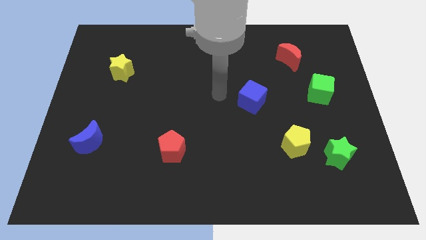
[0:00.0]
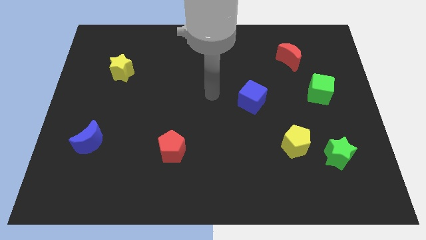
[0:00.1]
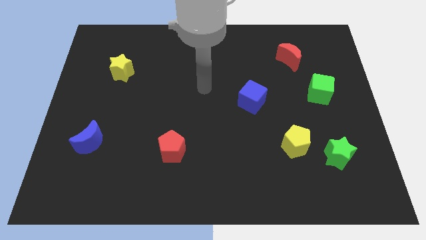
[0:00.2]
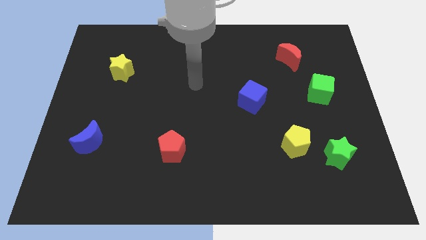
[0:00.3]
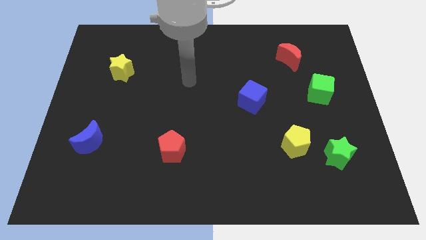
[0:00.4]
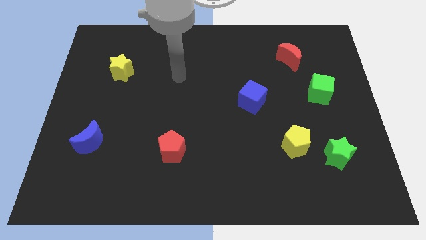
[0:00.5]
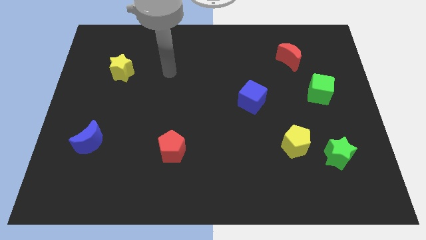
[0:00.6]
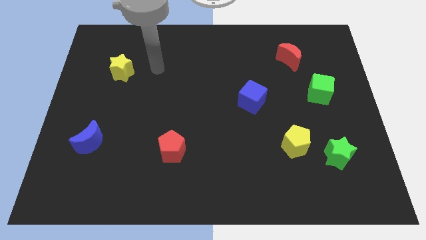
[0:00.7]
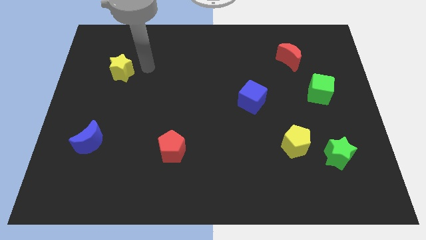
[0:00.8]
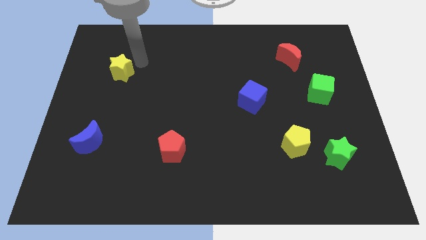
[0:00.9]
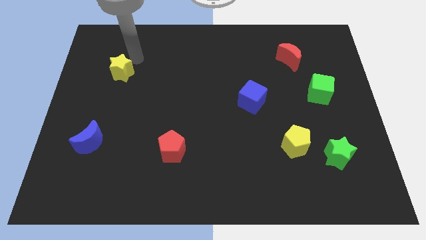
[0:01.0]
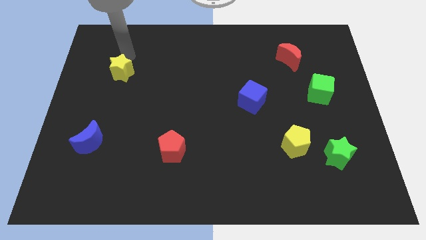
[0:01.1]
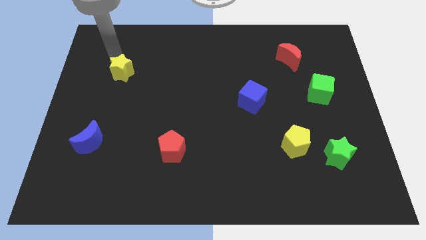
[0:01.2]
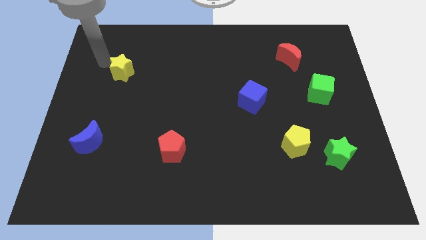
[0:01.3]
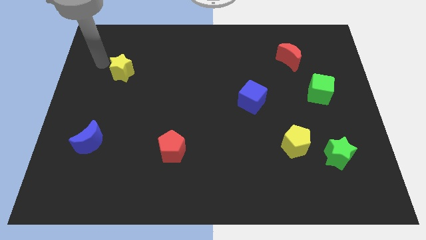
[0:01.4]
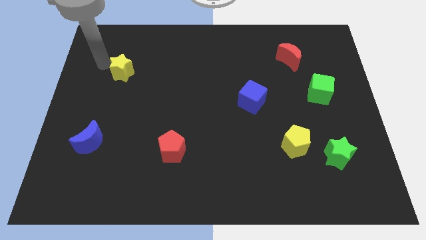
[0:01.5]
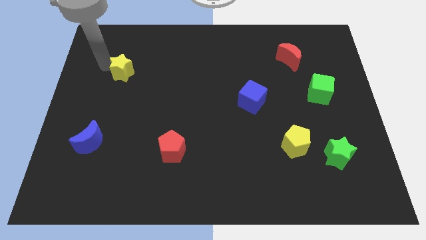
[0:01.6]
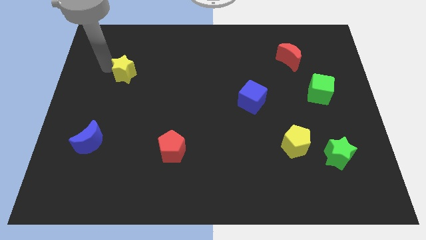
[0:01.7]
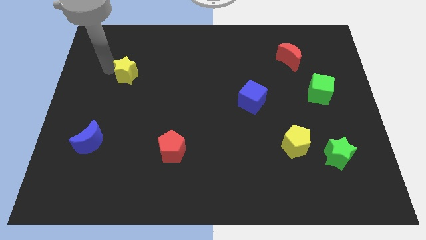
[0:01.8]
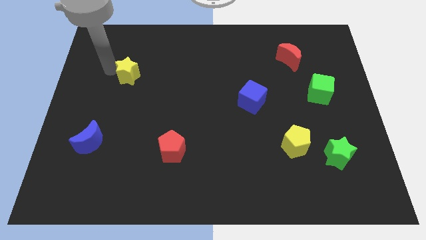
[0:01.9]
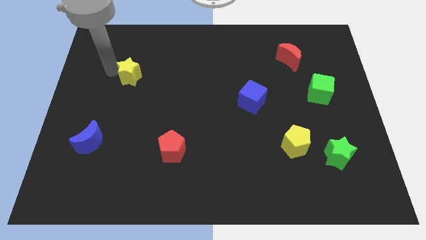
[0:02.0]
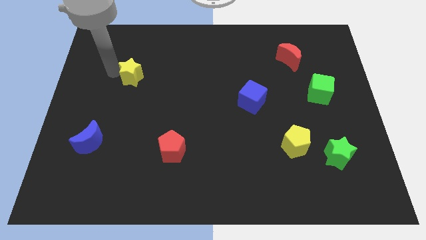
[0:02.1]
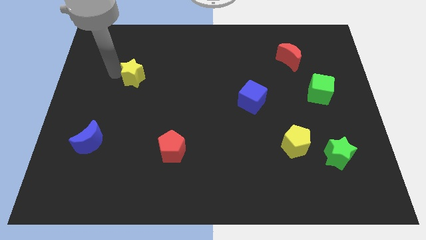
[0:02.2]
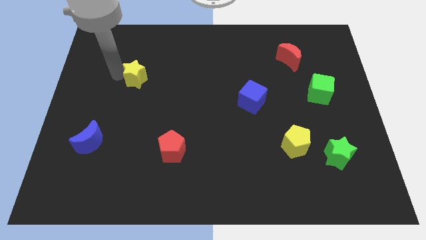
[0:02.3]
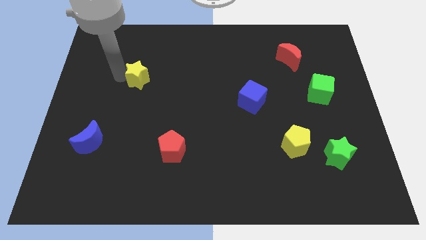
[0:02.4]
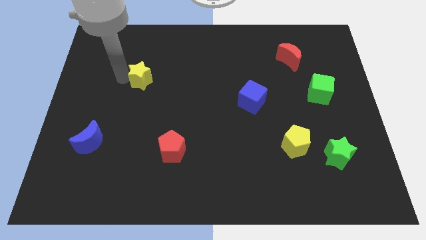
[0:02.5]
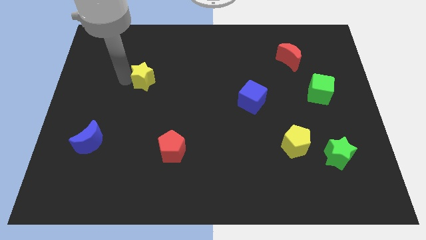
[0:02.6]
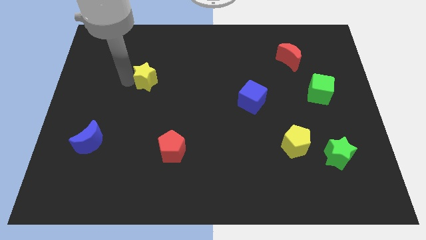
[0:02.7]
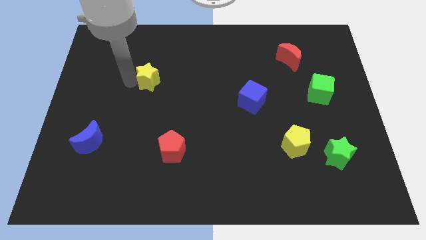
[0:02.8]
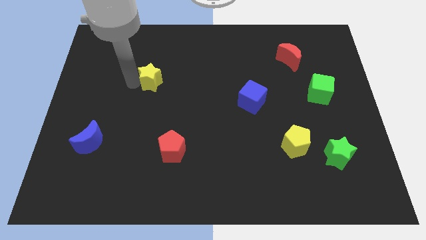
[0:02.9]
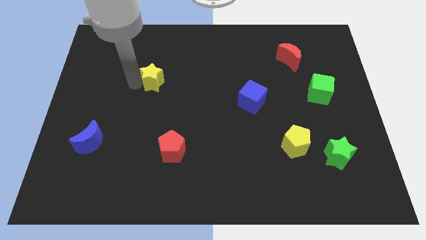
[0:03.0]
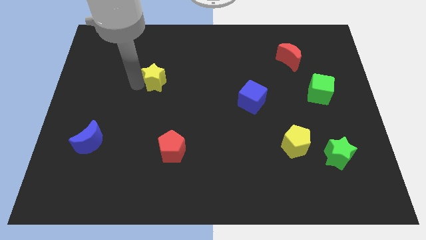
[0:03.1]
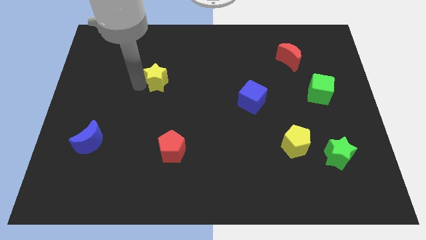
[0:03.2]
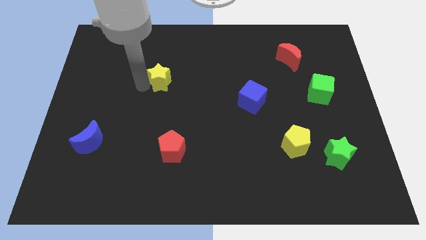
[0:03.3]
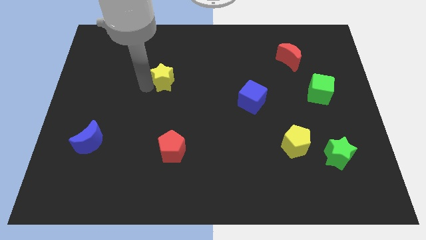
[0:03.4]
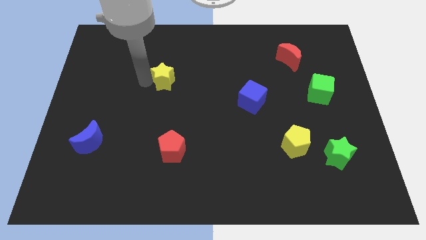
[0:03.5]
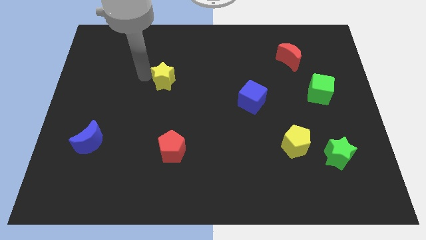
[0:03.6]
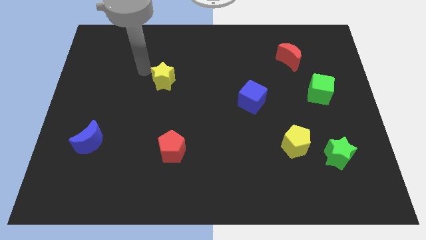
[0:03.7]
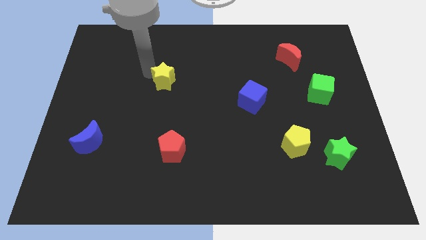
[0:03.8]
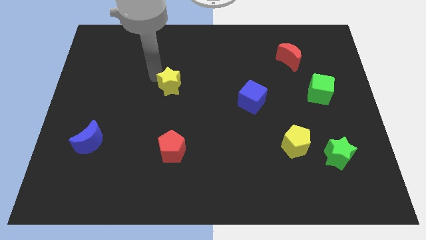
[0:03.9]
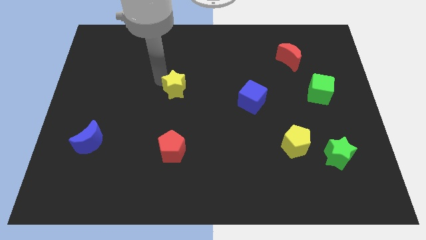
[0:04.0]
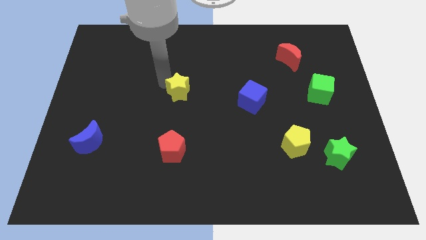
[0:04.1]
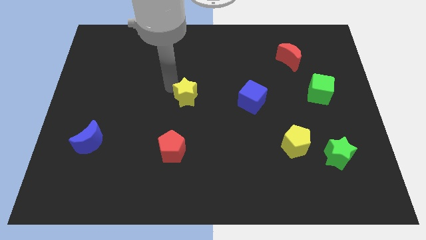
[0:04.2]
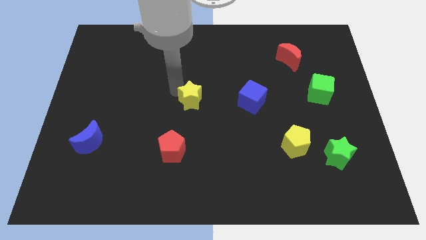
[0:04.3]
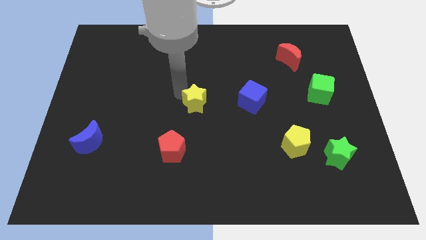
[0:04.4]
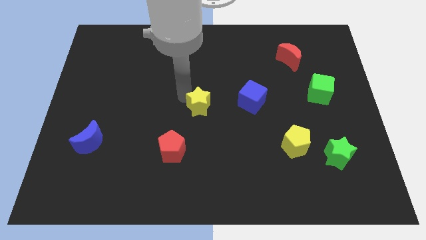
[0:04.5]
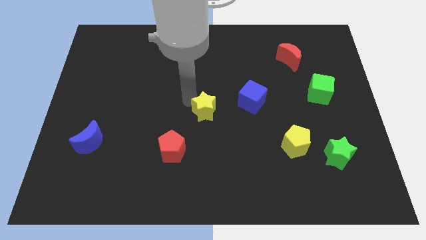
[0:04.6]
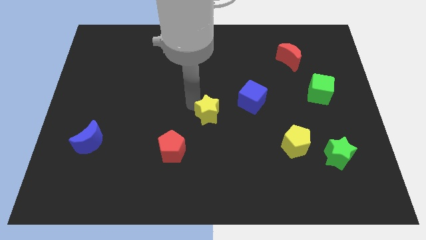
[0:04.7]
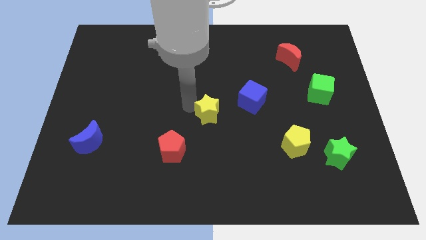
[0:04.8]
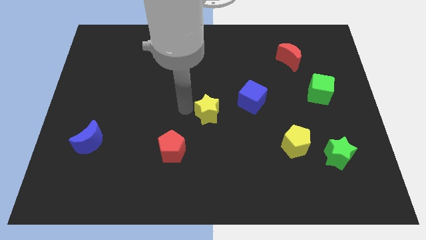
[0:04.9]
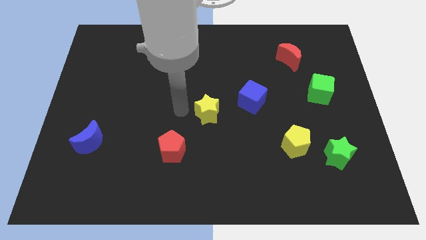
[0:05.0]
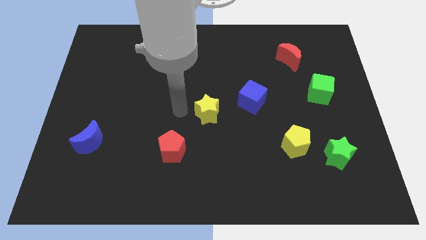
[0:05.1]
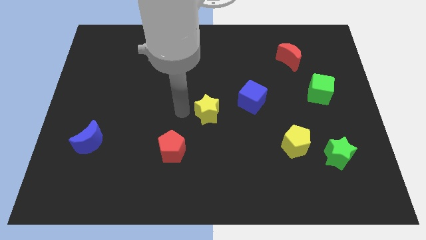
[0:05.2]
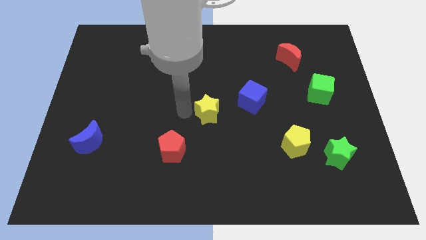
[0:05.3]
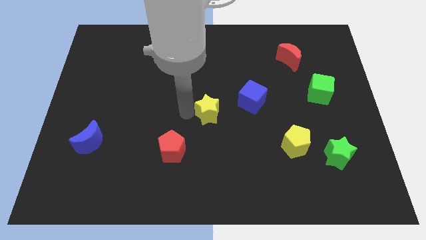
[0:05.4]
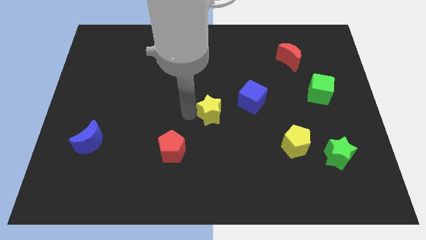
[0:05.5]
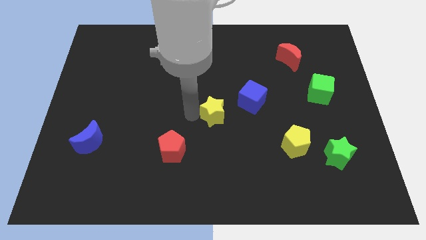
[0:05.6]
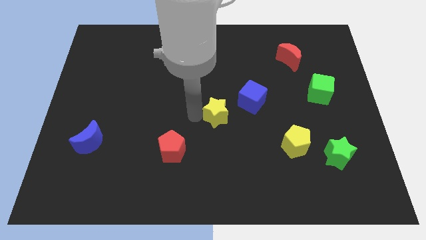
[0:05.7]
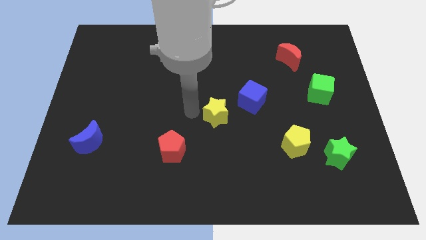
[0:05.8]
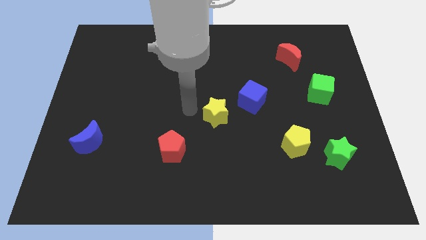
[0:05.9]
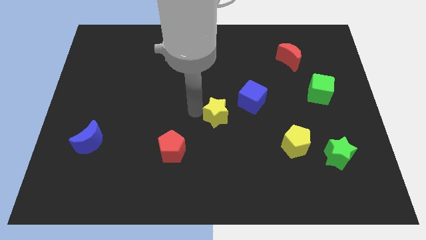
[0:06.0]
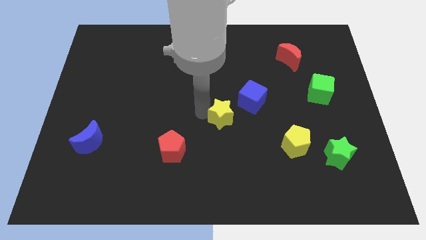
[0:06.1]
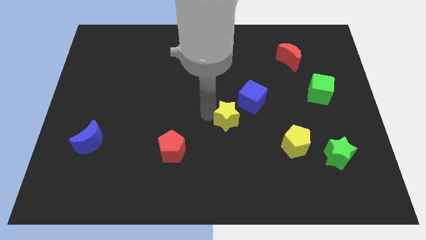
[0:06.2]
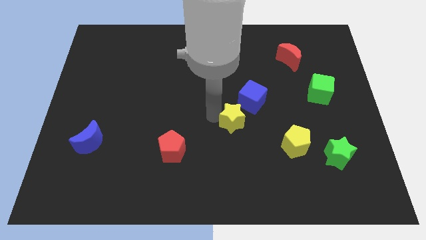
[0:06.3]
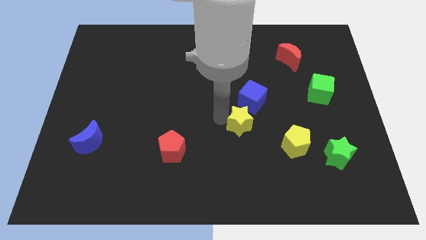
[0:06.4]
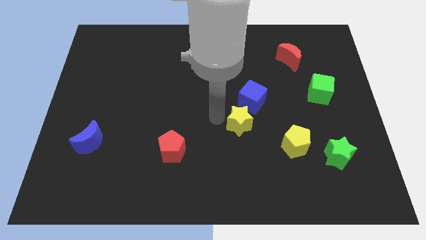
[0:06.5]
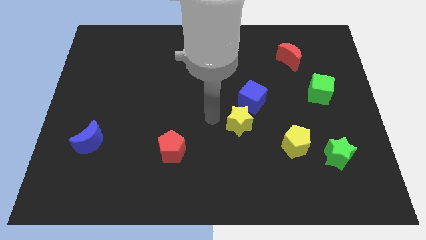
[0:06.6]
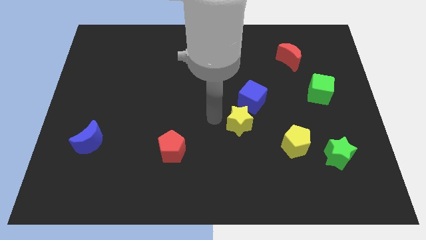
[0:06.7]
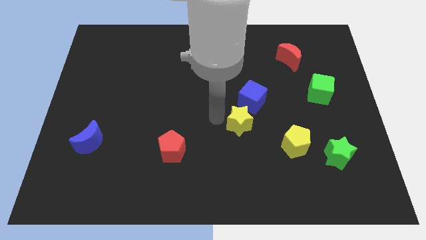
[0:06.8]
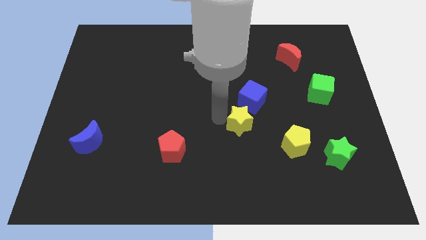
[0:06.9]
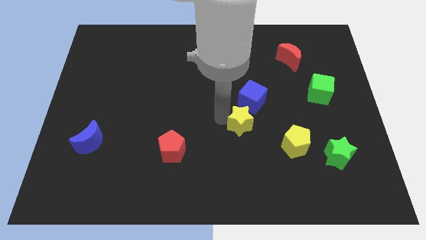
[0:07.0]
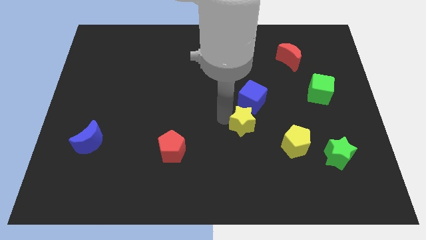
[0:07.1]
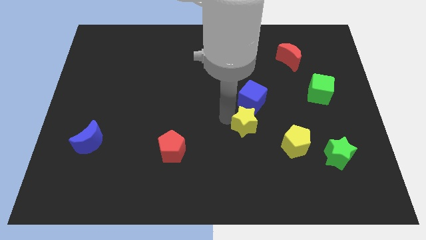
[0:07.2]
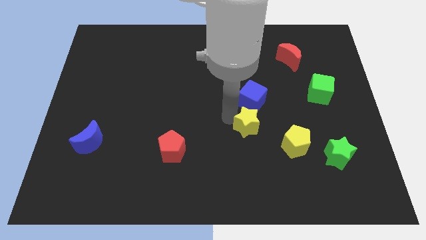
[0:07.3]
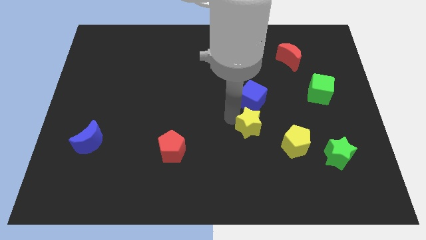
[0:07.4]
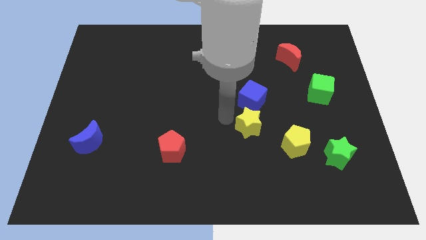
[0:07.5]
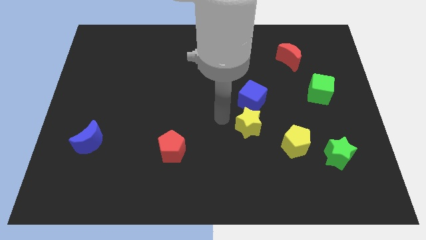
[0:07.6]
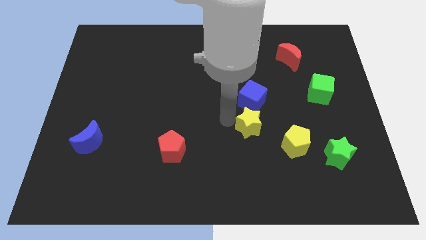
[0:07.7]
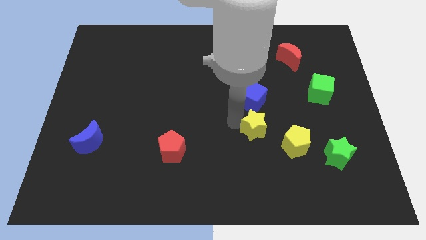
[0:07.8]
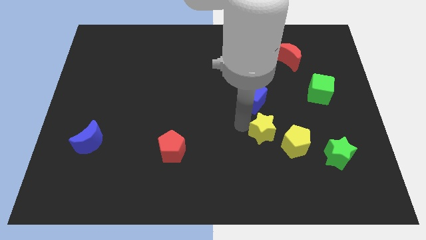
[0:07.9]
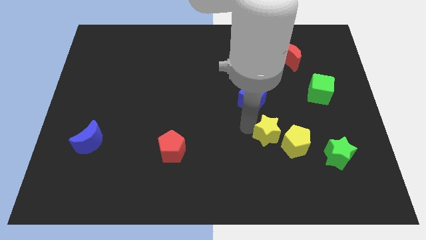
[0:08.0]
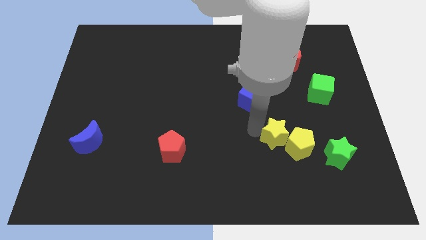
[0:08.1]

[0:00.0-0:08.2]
put the yellow star towards the yellow pentagon
